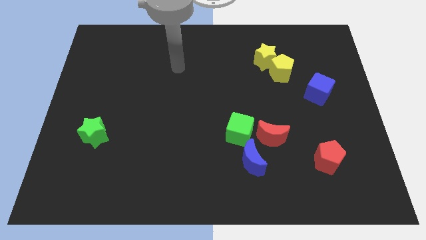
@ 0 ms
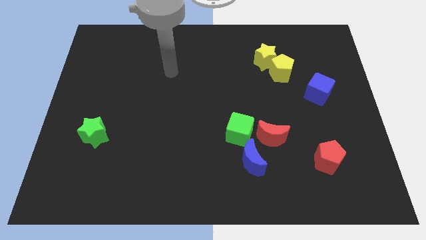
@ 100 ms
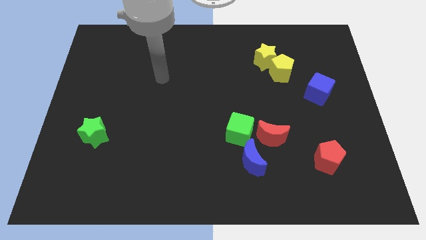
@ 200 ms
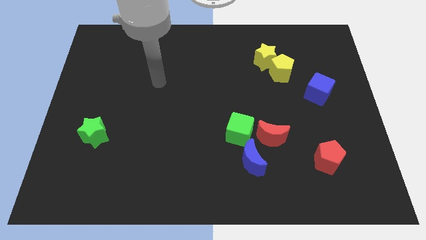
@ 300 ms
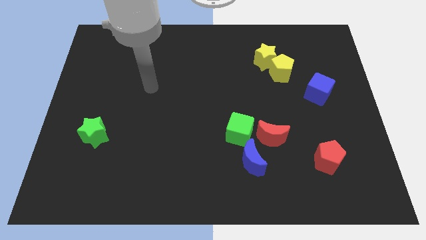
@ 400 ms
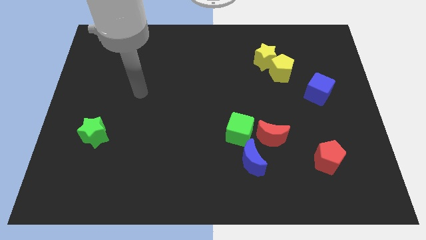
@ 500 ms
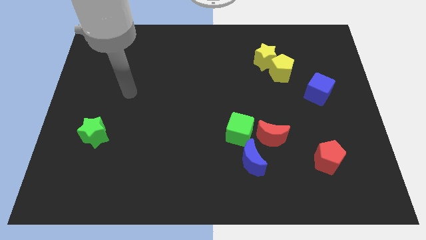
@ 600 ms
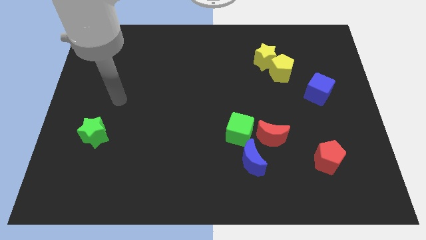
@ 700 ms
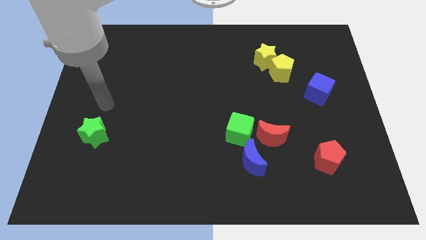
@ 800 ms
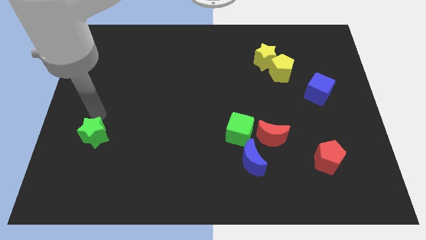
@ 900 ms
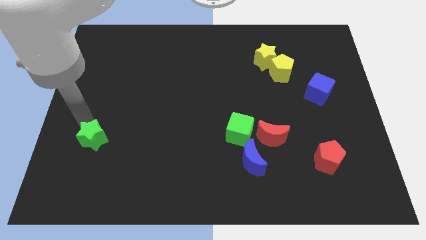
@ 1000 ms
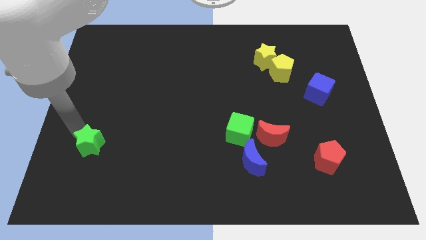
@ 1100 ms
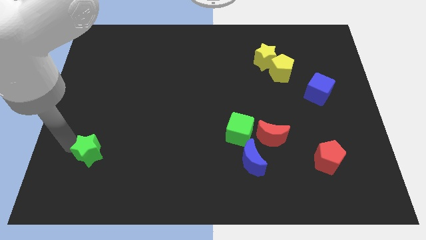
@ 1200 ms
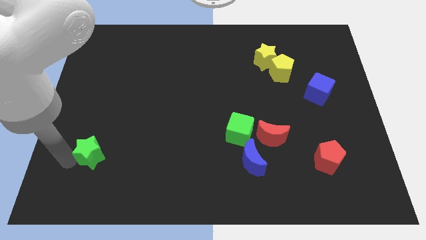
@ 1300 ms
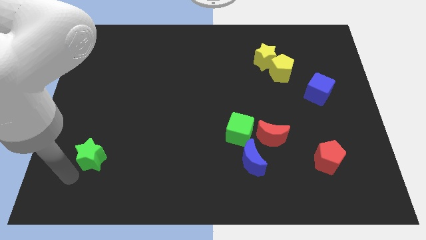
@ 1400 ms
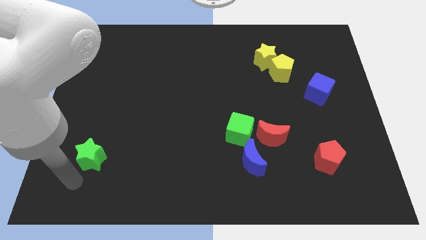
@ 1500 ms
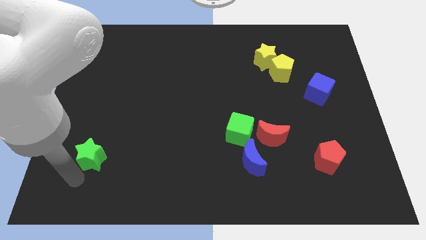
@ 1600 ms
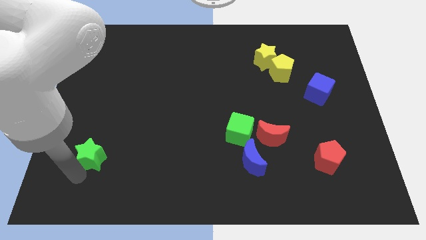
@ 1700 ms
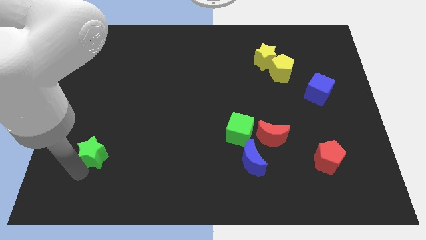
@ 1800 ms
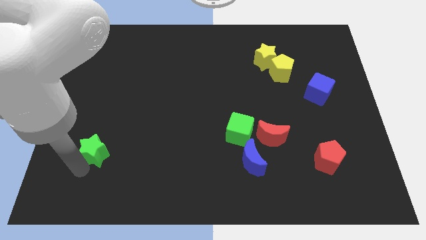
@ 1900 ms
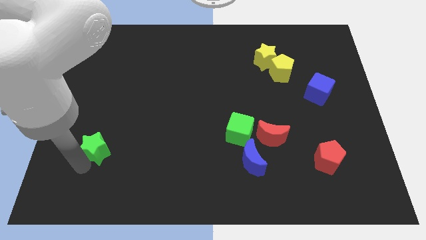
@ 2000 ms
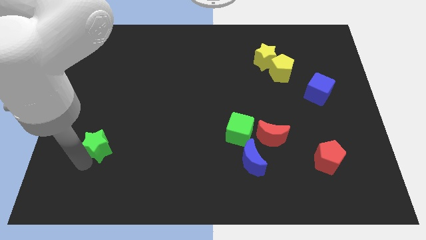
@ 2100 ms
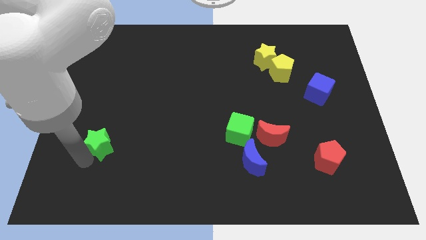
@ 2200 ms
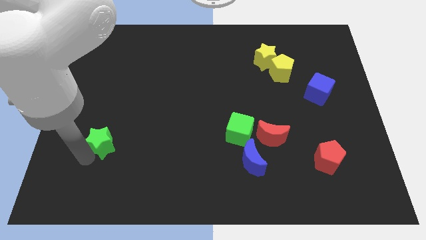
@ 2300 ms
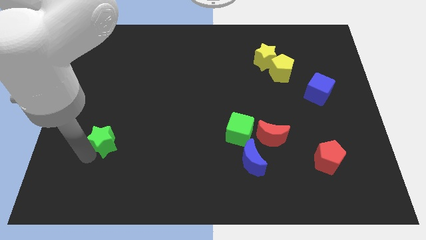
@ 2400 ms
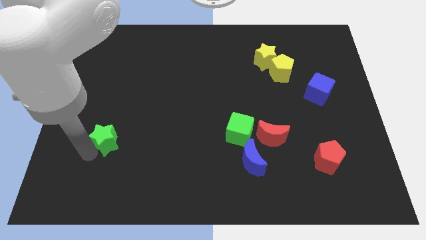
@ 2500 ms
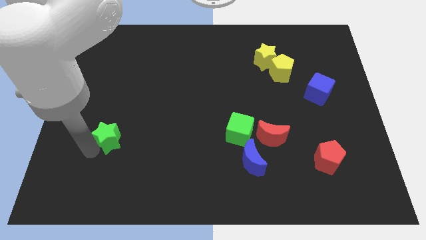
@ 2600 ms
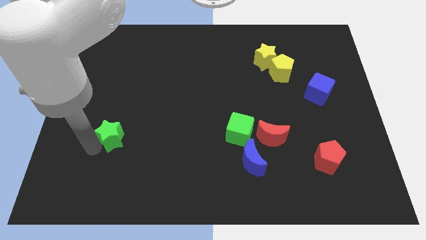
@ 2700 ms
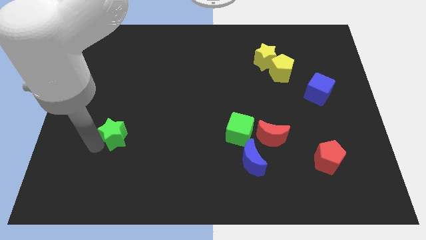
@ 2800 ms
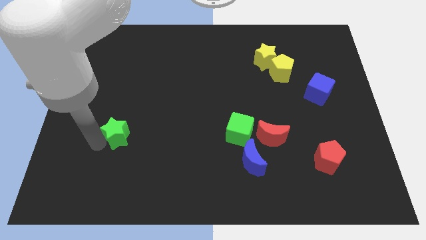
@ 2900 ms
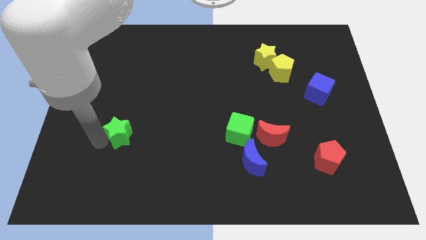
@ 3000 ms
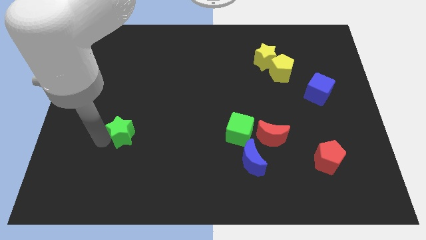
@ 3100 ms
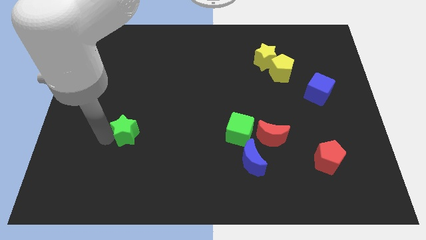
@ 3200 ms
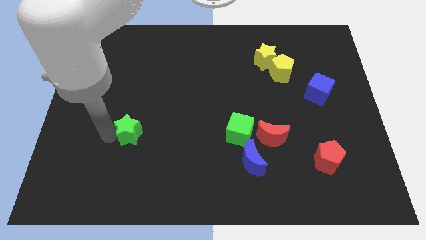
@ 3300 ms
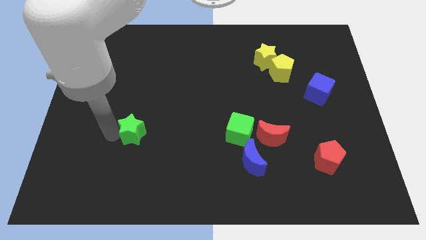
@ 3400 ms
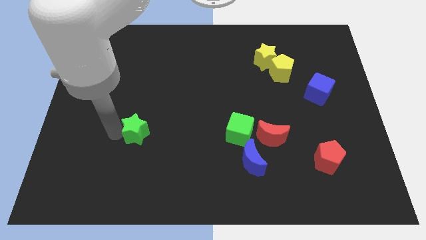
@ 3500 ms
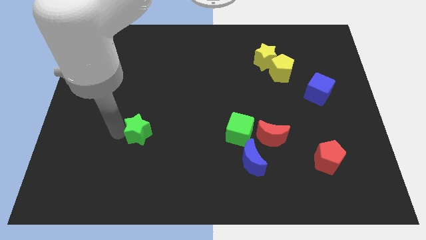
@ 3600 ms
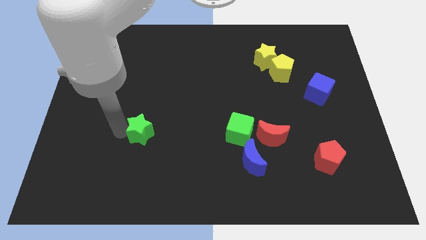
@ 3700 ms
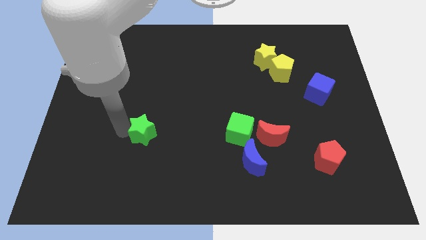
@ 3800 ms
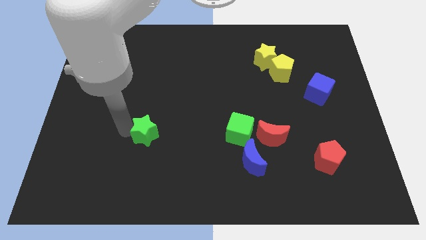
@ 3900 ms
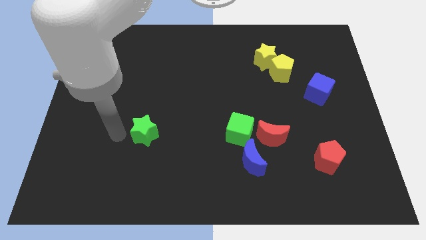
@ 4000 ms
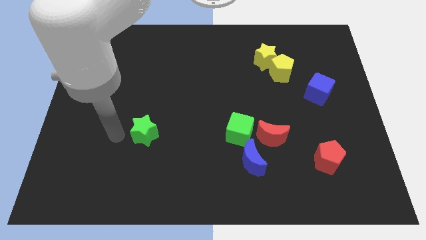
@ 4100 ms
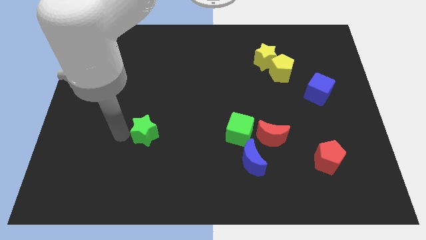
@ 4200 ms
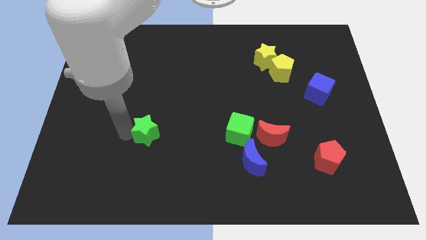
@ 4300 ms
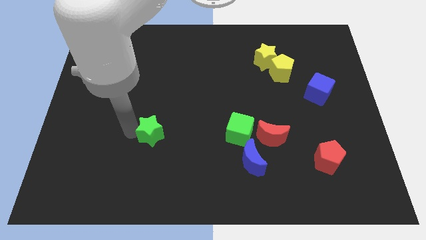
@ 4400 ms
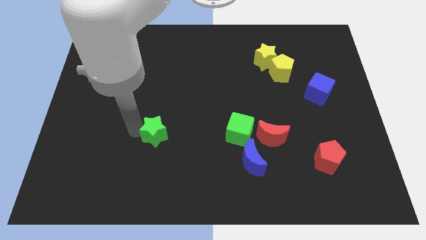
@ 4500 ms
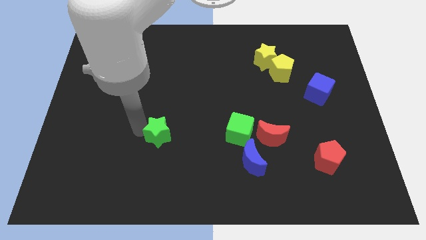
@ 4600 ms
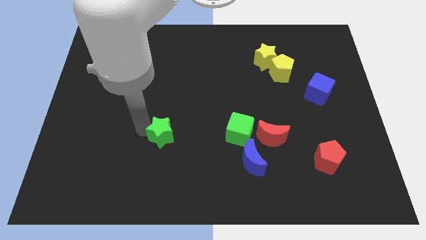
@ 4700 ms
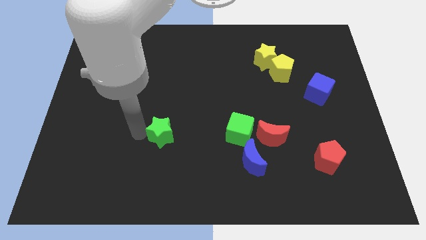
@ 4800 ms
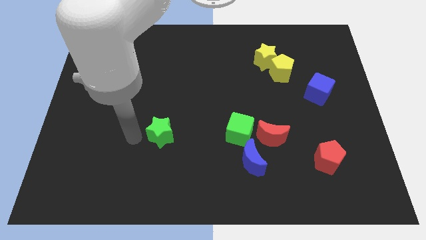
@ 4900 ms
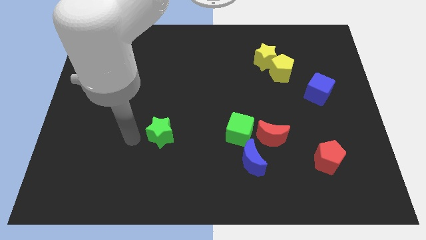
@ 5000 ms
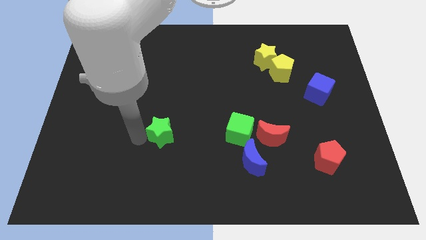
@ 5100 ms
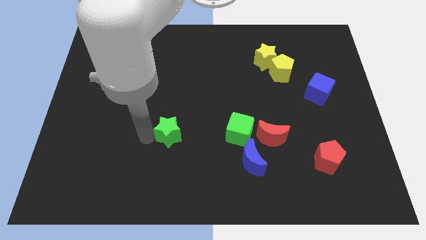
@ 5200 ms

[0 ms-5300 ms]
slide the green star to the left side of the green cube

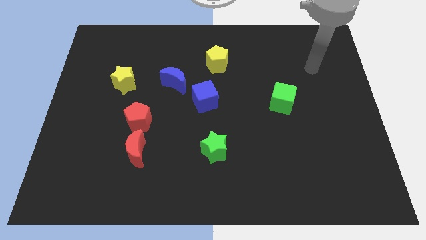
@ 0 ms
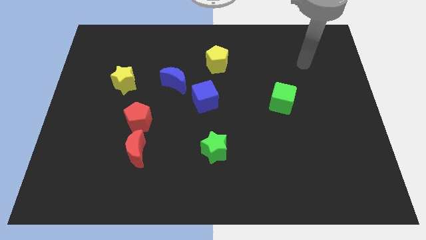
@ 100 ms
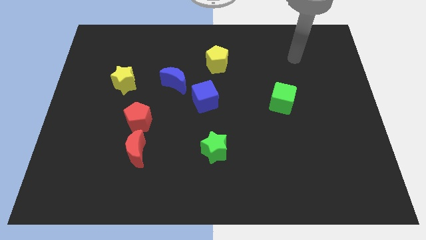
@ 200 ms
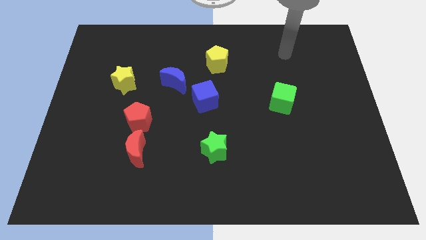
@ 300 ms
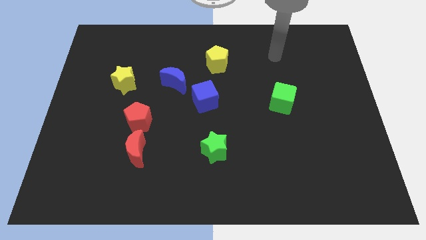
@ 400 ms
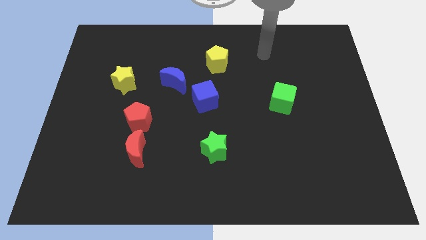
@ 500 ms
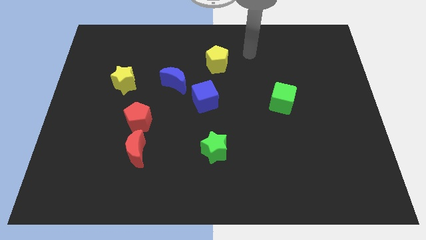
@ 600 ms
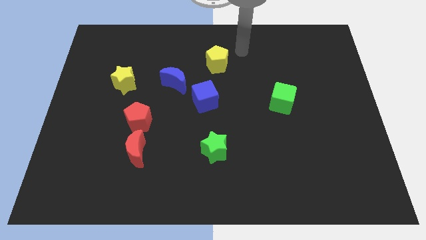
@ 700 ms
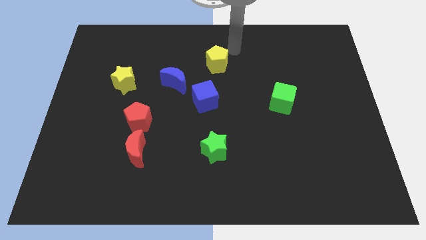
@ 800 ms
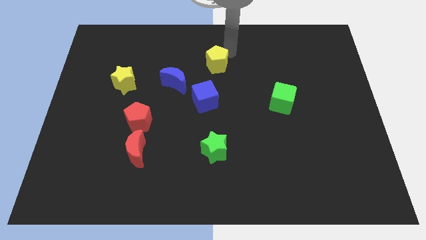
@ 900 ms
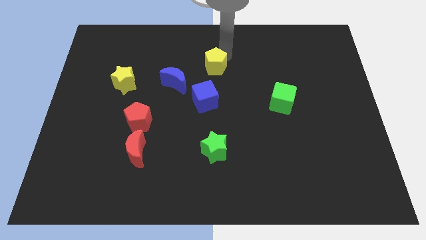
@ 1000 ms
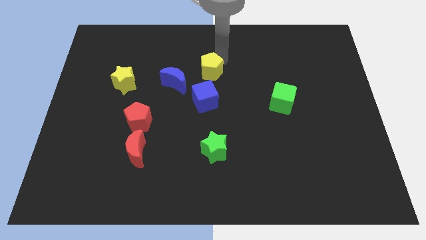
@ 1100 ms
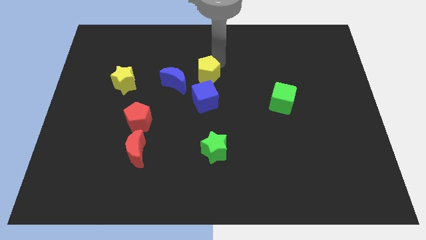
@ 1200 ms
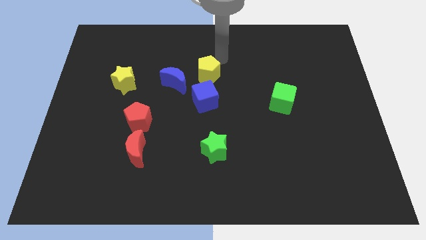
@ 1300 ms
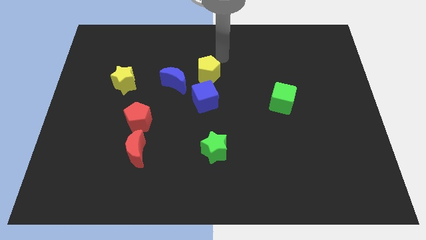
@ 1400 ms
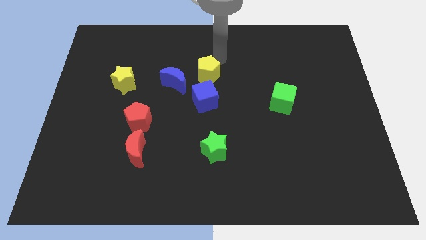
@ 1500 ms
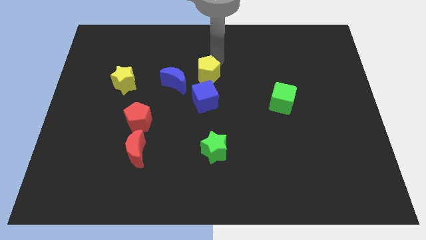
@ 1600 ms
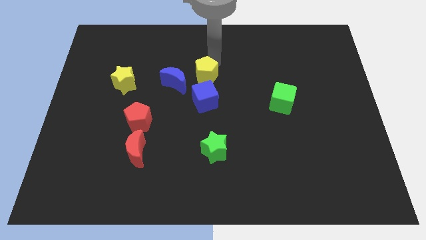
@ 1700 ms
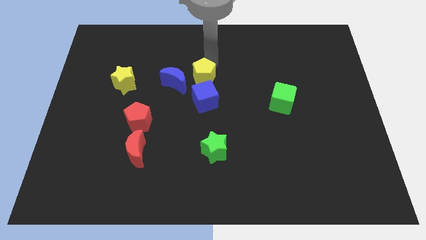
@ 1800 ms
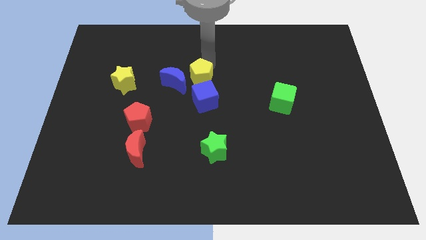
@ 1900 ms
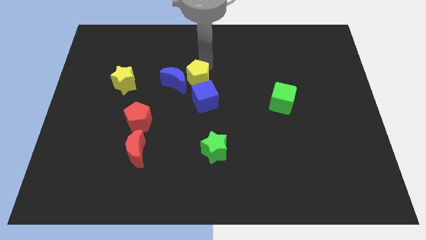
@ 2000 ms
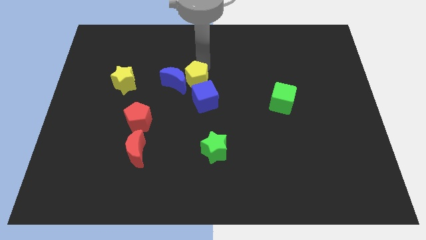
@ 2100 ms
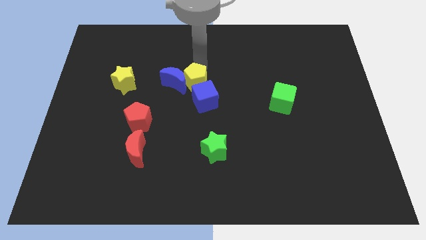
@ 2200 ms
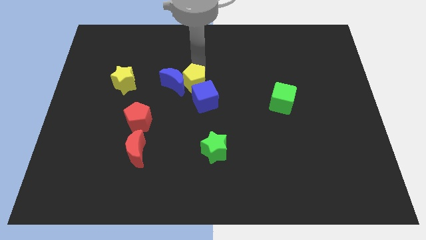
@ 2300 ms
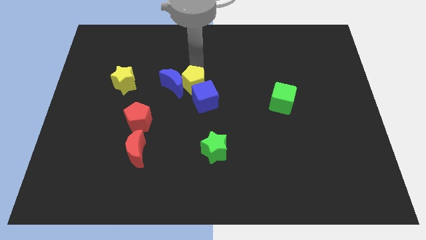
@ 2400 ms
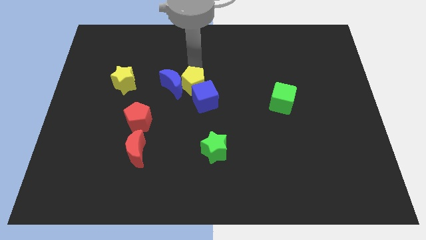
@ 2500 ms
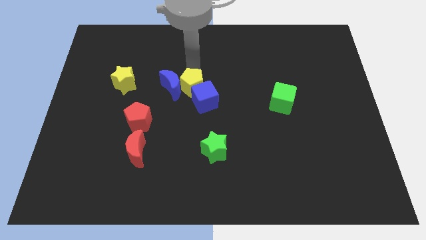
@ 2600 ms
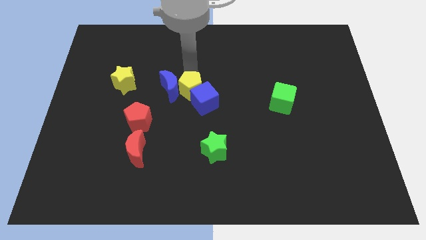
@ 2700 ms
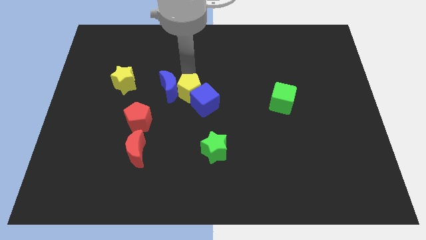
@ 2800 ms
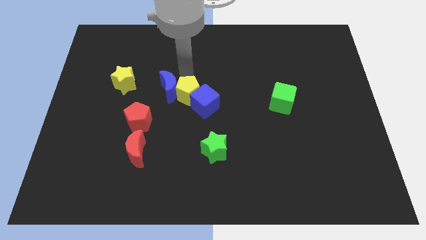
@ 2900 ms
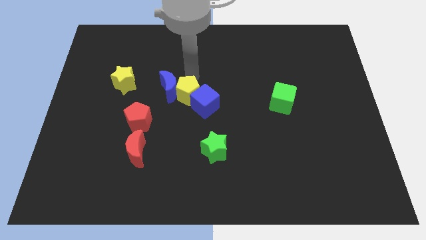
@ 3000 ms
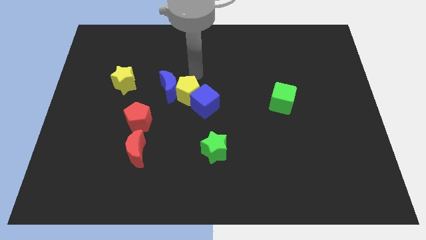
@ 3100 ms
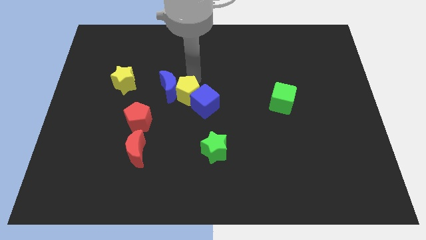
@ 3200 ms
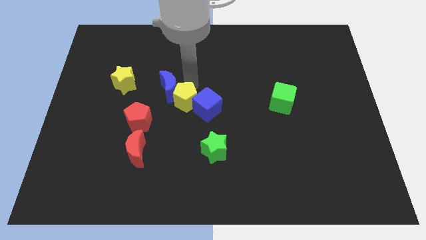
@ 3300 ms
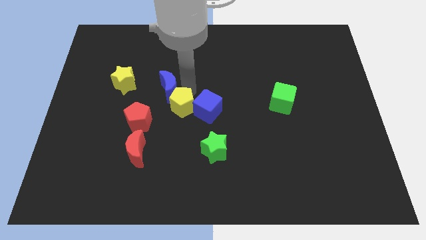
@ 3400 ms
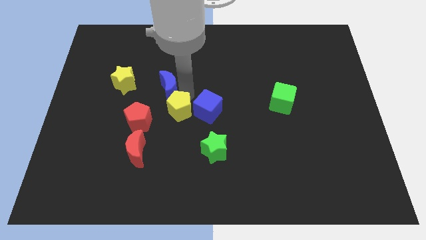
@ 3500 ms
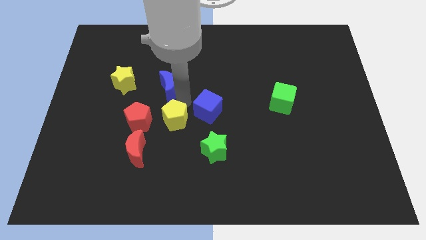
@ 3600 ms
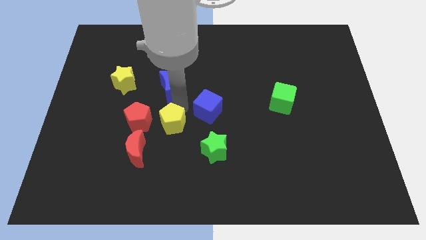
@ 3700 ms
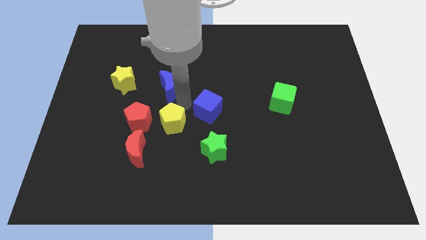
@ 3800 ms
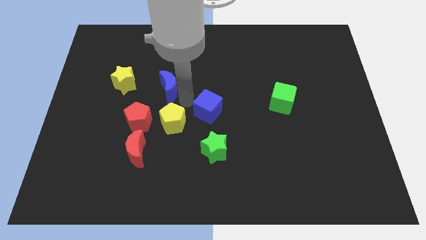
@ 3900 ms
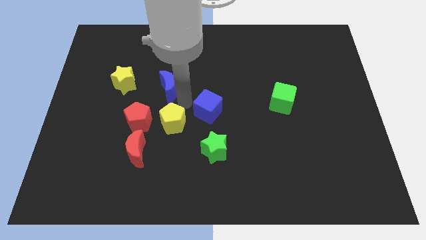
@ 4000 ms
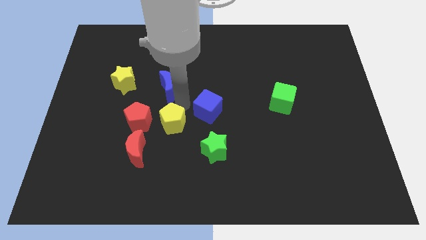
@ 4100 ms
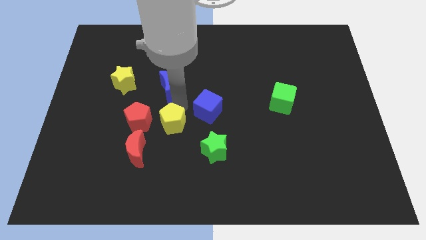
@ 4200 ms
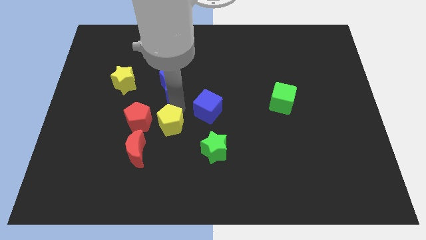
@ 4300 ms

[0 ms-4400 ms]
move the yellow pentagon diagonally down and to the right of the red pentagon
